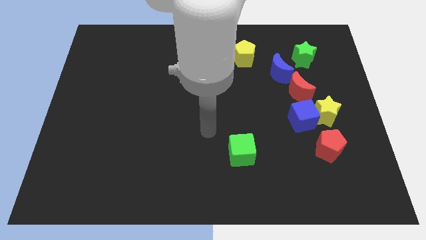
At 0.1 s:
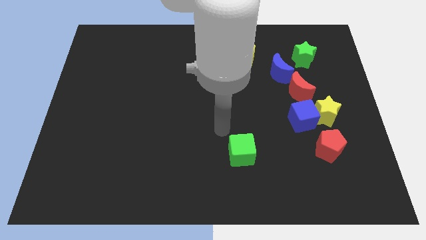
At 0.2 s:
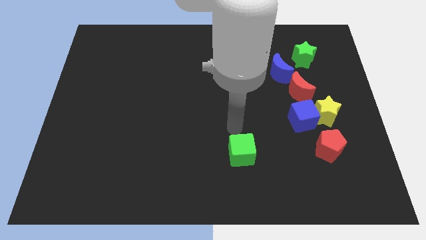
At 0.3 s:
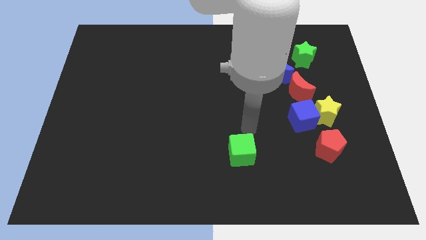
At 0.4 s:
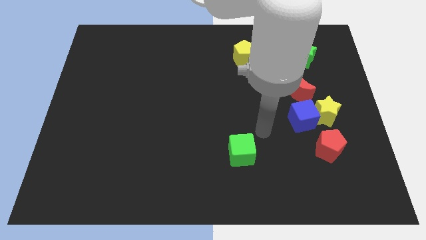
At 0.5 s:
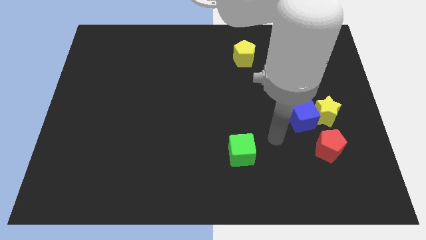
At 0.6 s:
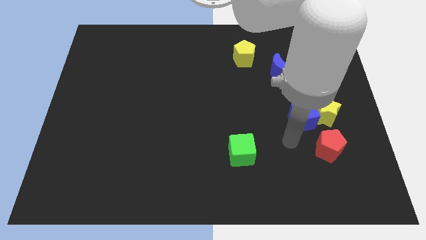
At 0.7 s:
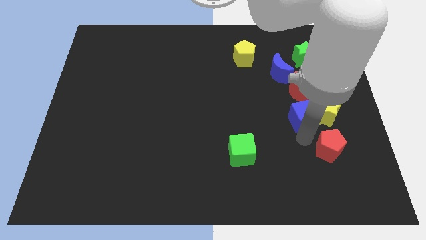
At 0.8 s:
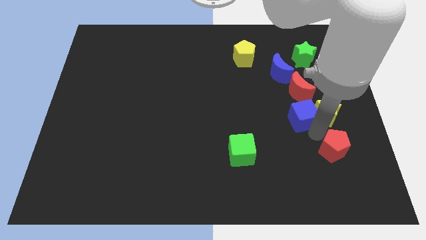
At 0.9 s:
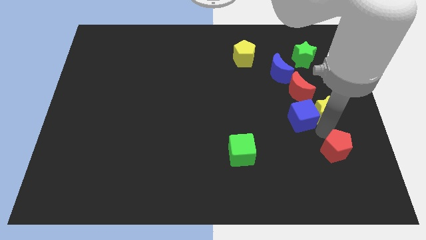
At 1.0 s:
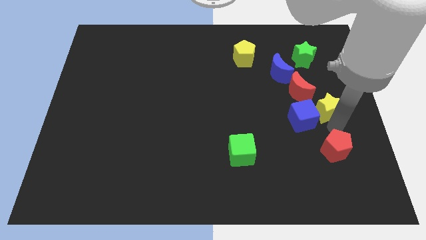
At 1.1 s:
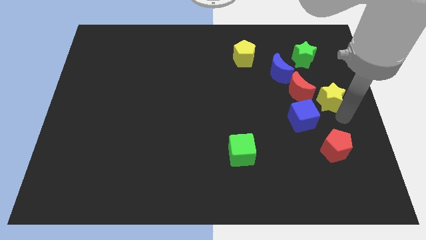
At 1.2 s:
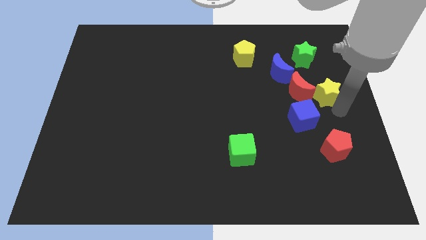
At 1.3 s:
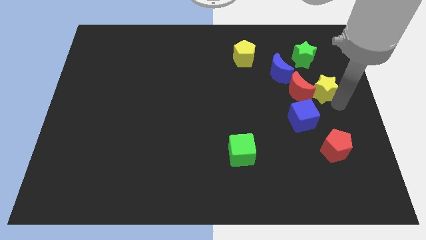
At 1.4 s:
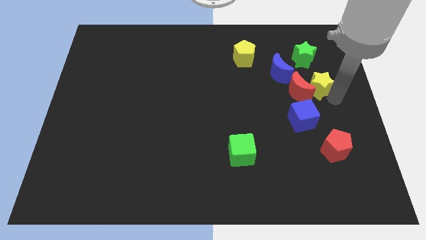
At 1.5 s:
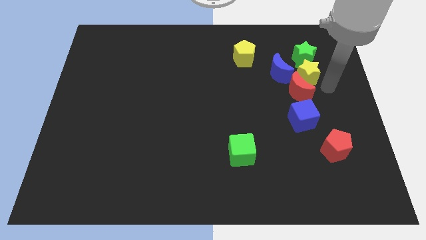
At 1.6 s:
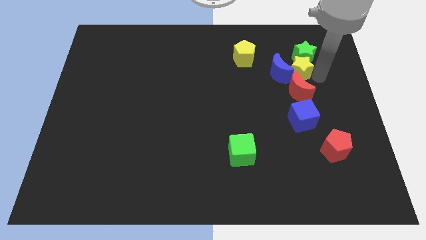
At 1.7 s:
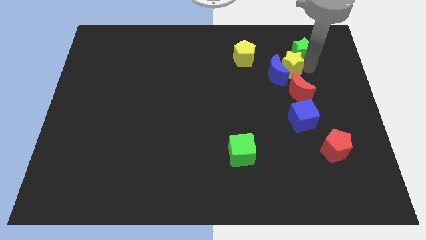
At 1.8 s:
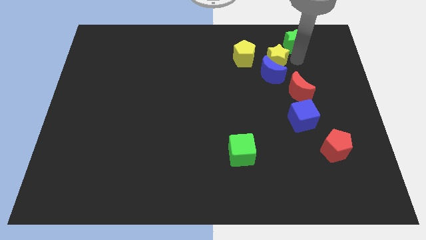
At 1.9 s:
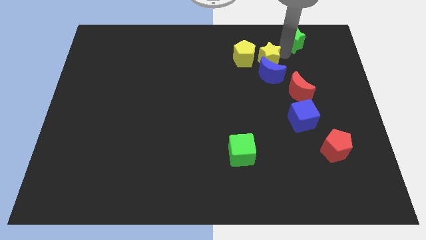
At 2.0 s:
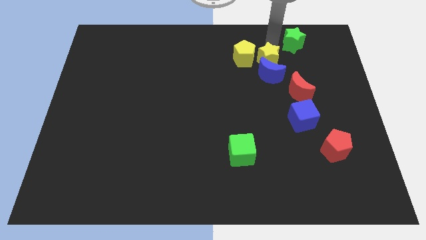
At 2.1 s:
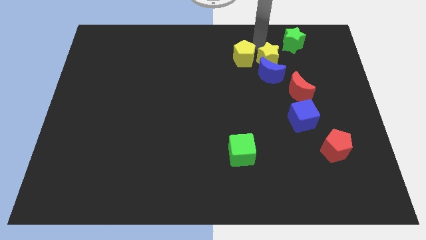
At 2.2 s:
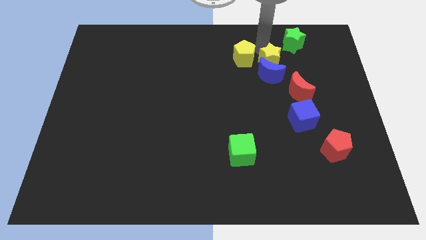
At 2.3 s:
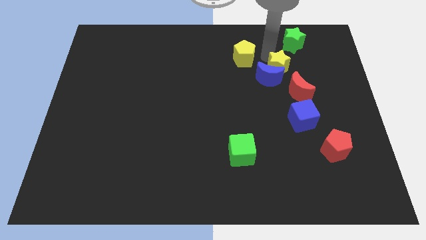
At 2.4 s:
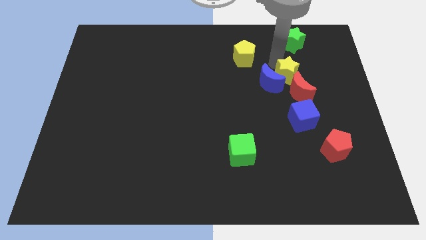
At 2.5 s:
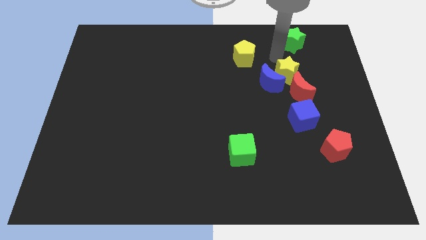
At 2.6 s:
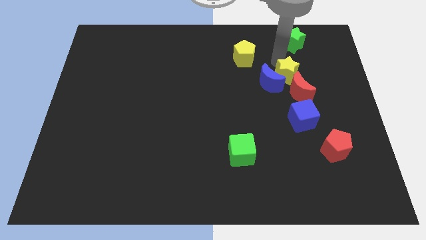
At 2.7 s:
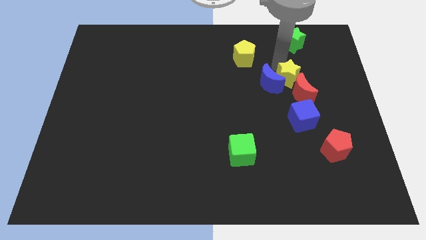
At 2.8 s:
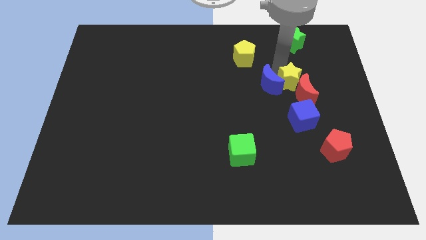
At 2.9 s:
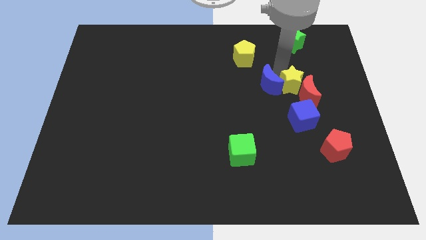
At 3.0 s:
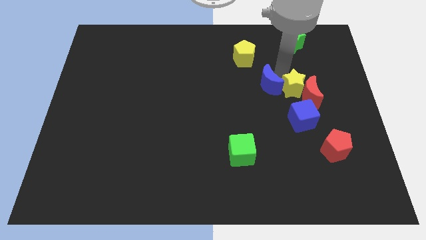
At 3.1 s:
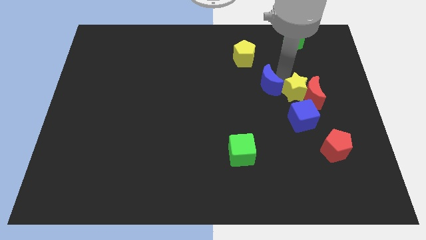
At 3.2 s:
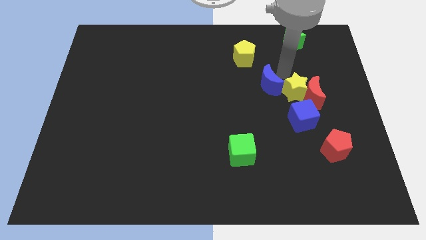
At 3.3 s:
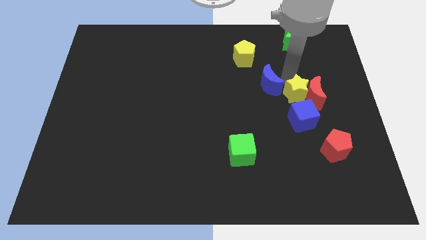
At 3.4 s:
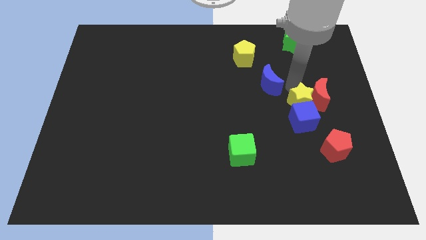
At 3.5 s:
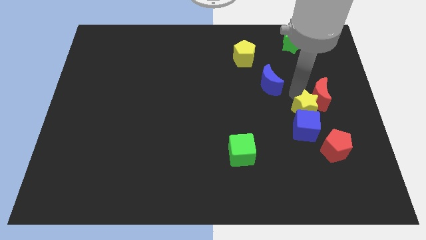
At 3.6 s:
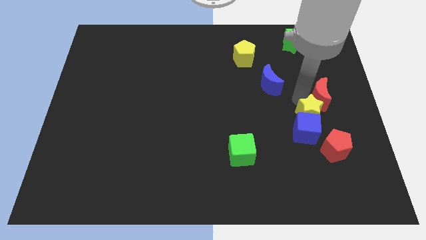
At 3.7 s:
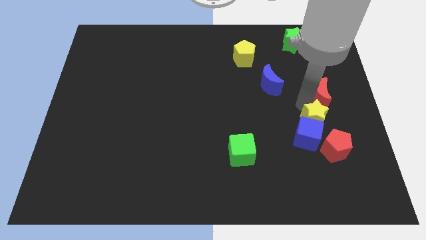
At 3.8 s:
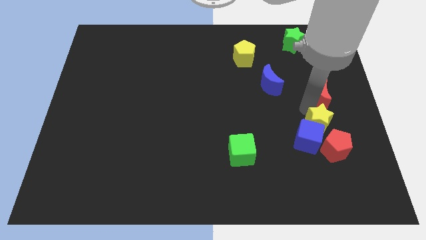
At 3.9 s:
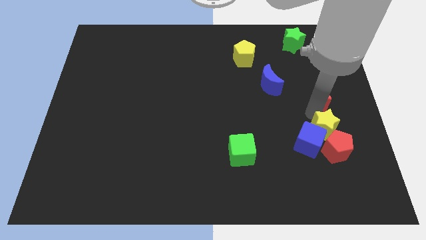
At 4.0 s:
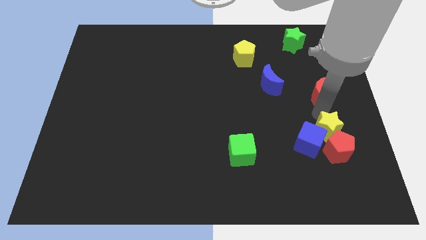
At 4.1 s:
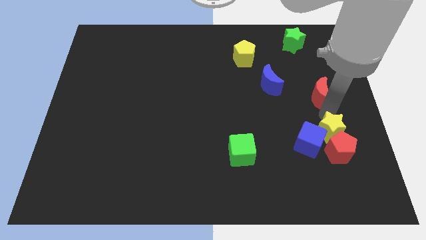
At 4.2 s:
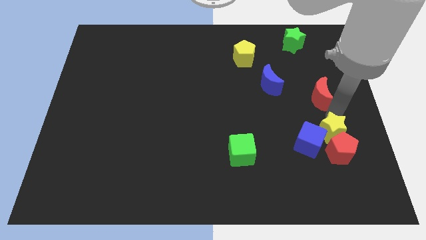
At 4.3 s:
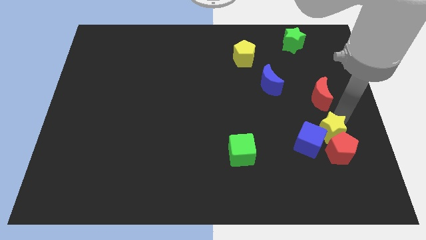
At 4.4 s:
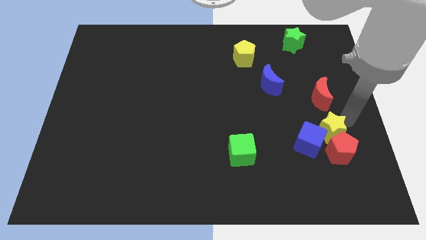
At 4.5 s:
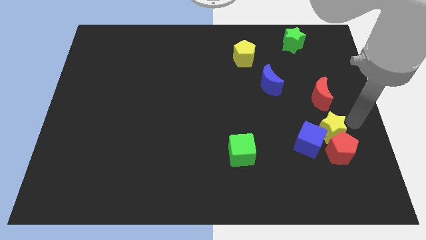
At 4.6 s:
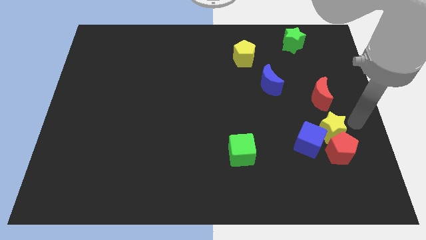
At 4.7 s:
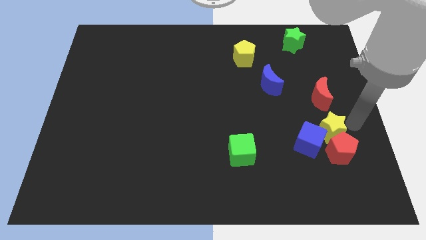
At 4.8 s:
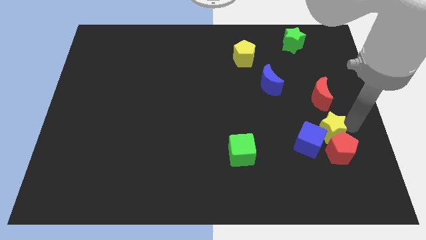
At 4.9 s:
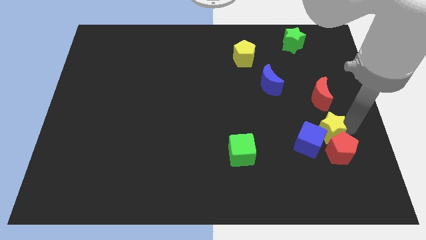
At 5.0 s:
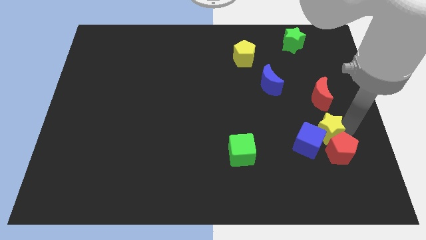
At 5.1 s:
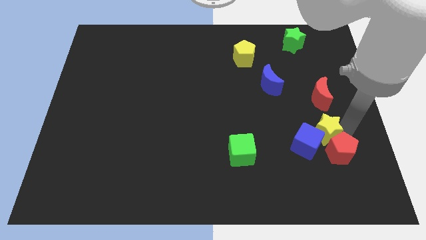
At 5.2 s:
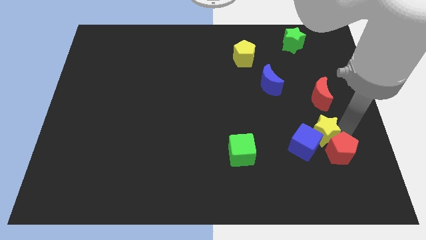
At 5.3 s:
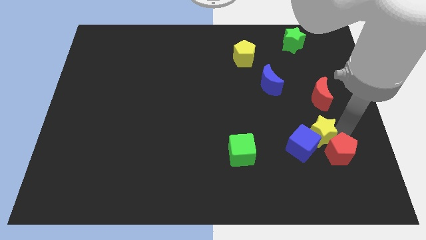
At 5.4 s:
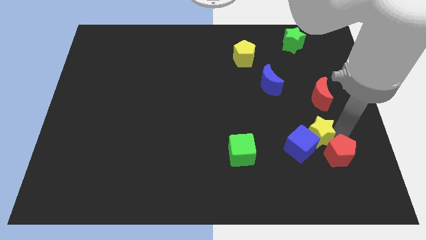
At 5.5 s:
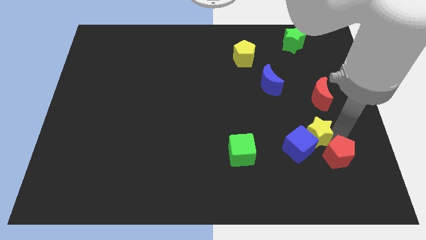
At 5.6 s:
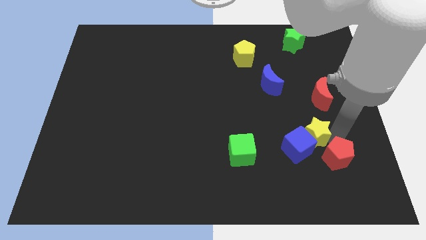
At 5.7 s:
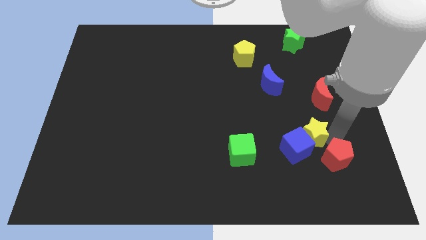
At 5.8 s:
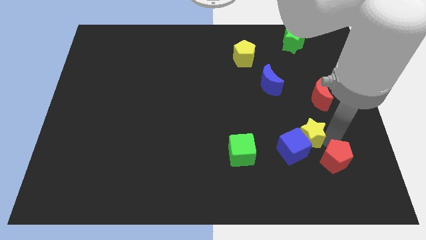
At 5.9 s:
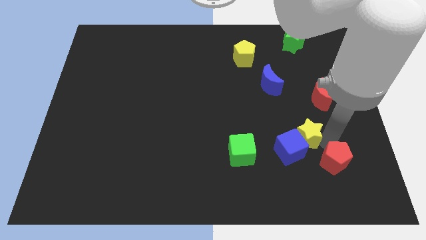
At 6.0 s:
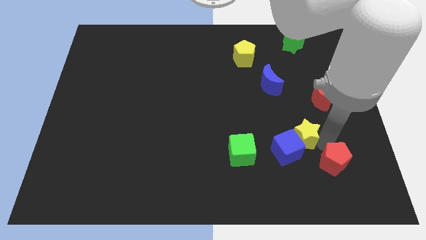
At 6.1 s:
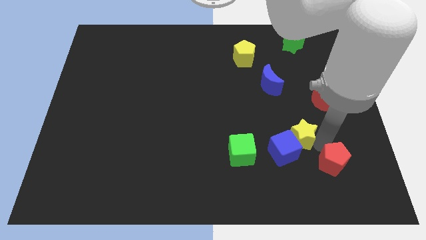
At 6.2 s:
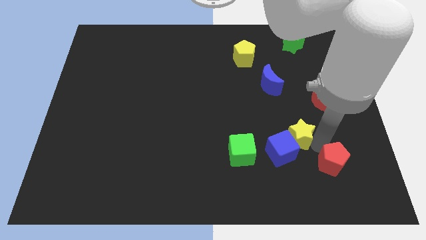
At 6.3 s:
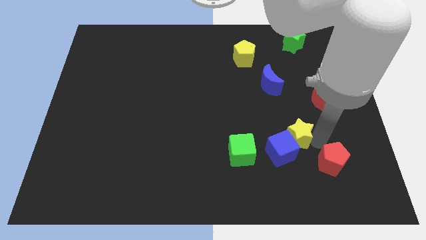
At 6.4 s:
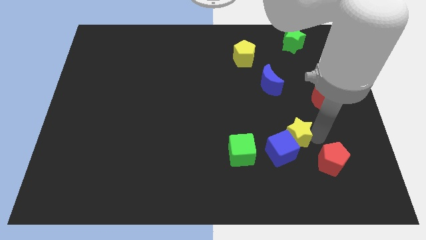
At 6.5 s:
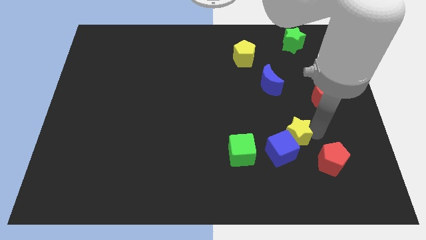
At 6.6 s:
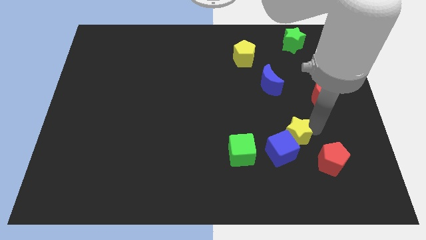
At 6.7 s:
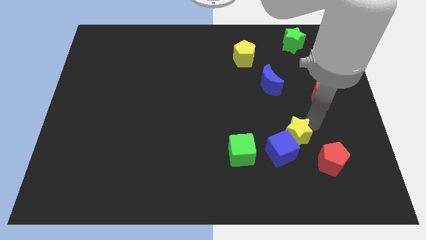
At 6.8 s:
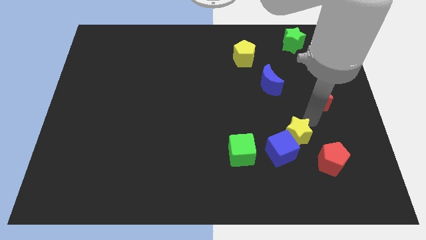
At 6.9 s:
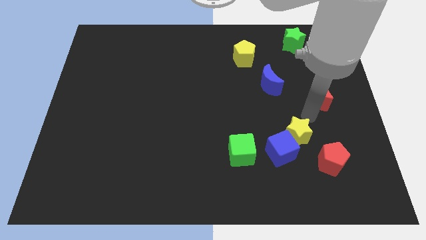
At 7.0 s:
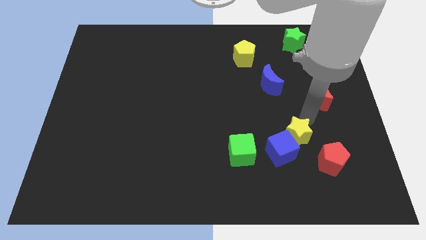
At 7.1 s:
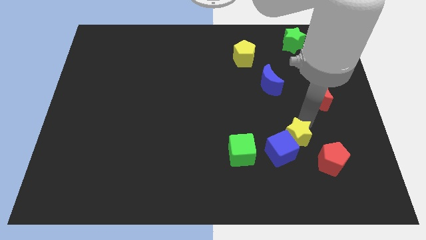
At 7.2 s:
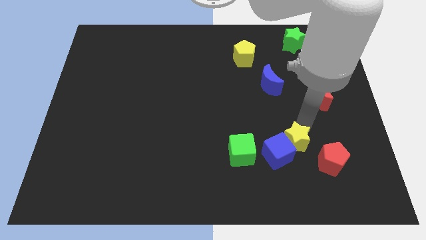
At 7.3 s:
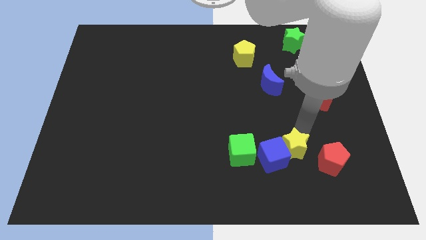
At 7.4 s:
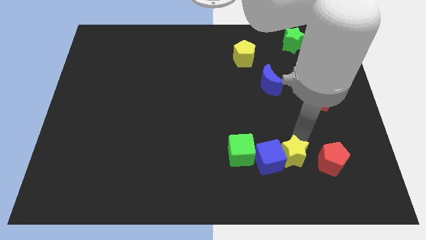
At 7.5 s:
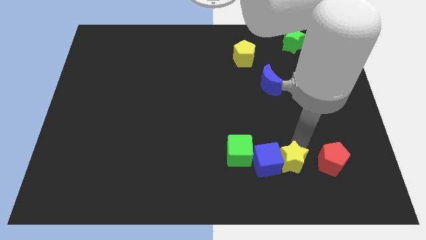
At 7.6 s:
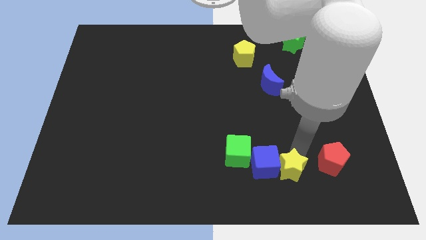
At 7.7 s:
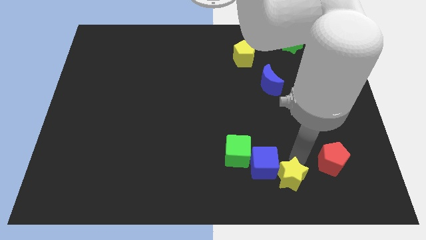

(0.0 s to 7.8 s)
push the yellow star to the bottom right of the green cube
